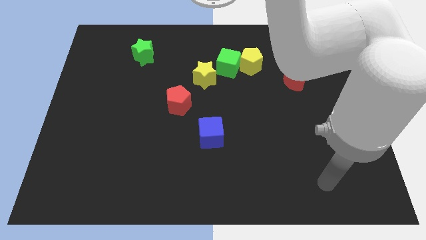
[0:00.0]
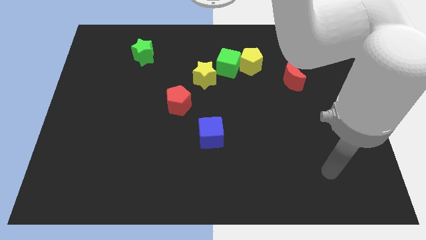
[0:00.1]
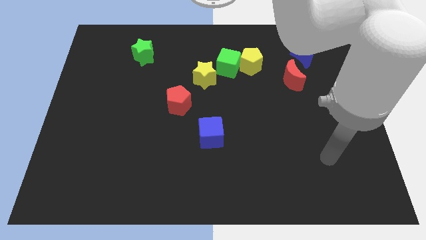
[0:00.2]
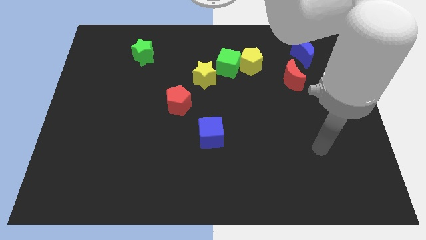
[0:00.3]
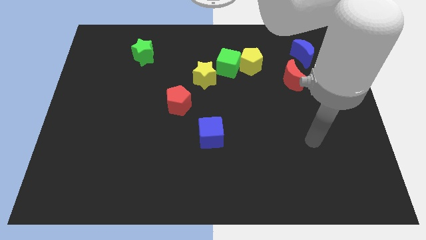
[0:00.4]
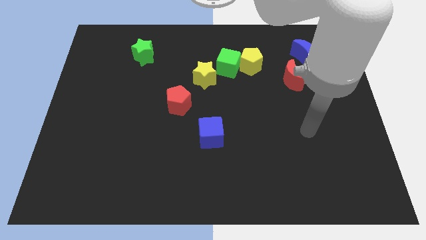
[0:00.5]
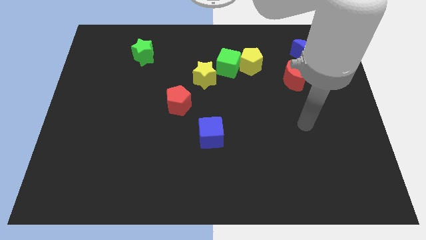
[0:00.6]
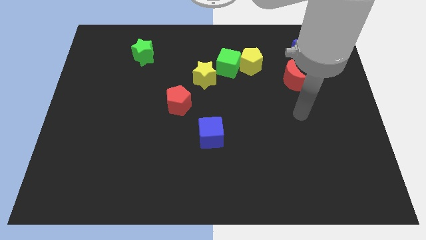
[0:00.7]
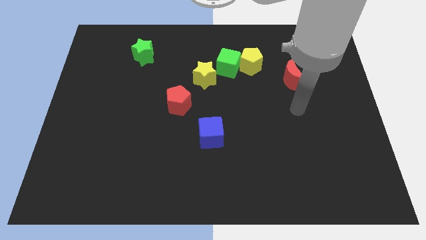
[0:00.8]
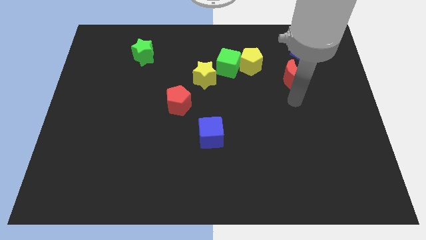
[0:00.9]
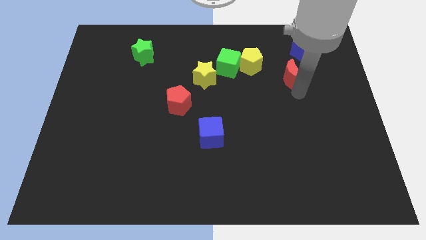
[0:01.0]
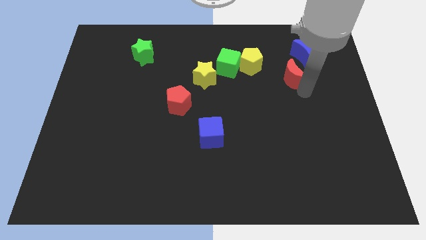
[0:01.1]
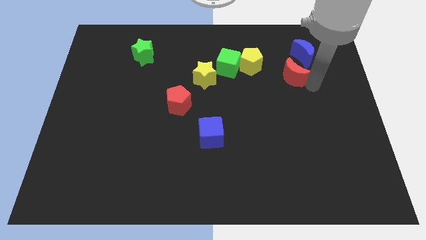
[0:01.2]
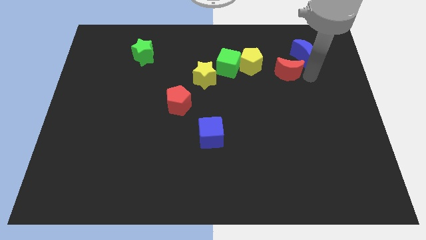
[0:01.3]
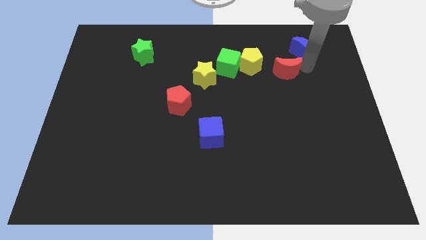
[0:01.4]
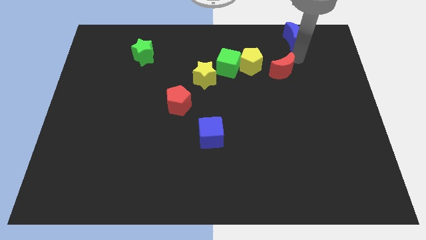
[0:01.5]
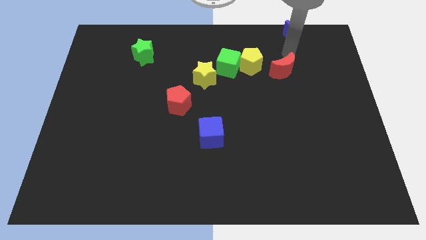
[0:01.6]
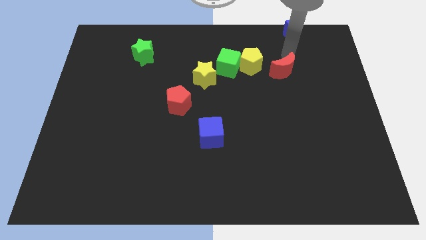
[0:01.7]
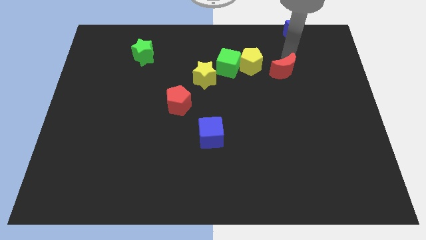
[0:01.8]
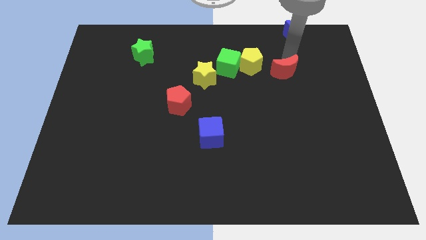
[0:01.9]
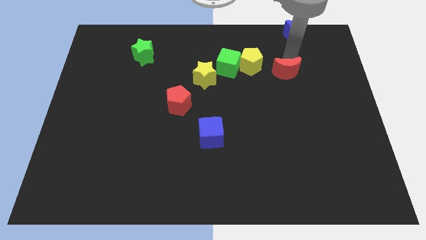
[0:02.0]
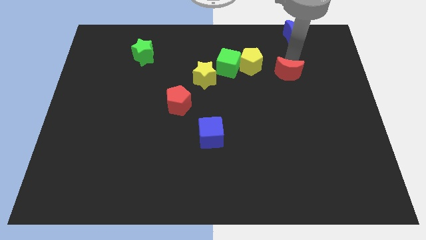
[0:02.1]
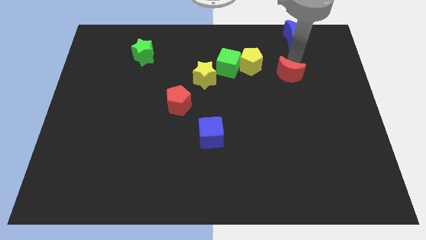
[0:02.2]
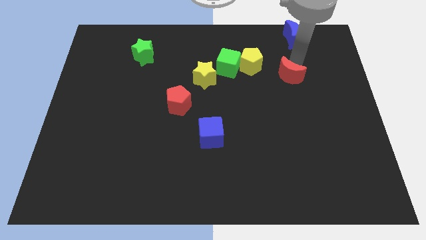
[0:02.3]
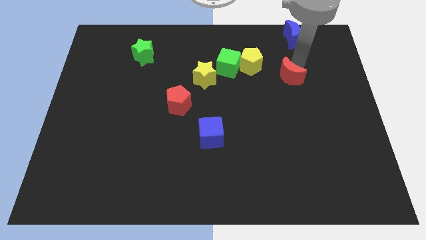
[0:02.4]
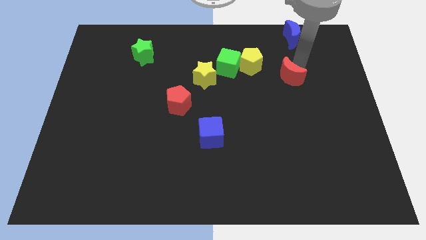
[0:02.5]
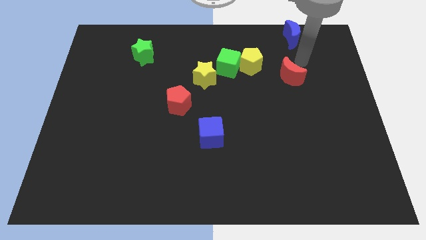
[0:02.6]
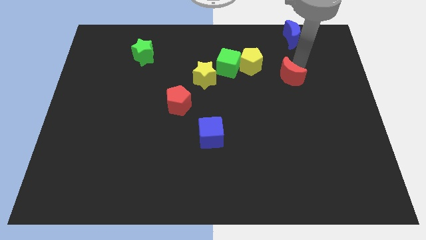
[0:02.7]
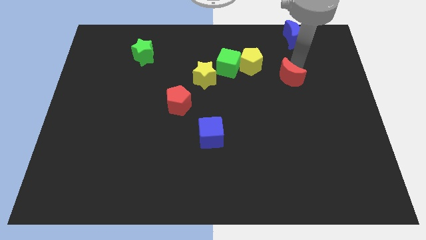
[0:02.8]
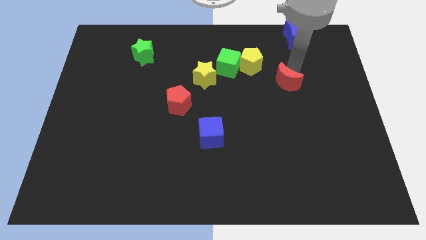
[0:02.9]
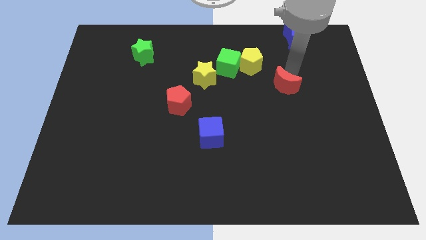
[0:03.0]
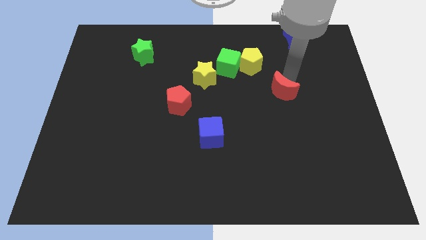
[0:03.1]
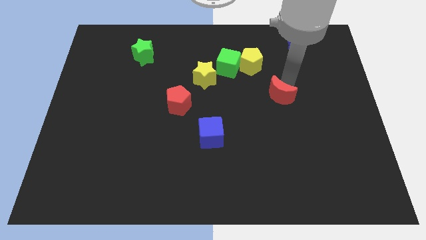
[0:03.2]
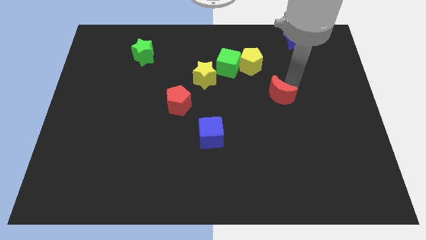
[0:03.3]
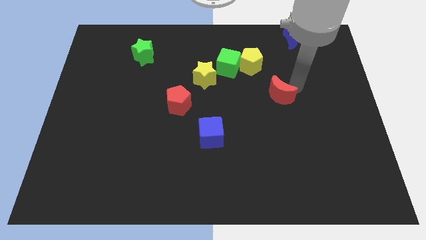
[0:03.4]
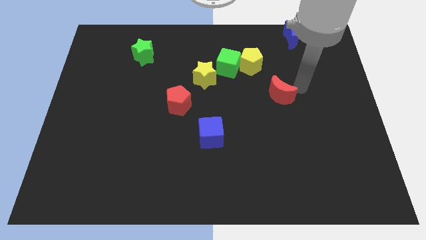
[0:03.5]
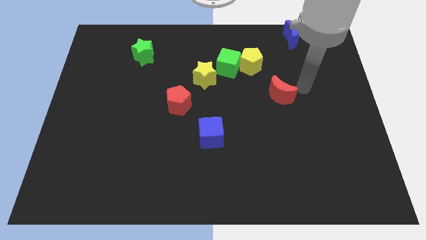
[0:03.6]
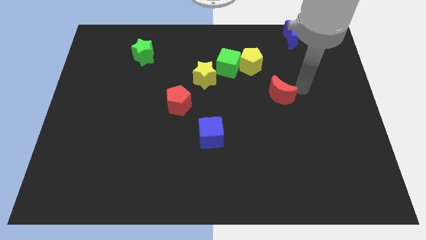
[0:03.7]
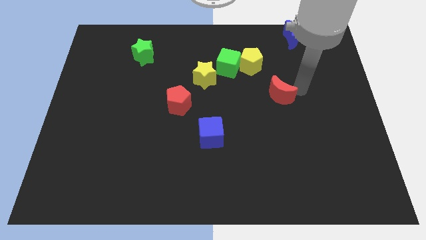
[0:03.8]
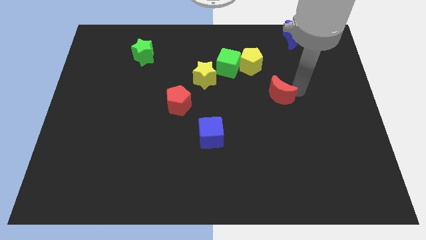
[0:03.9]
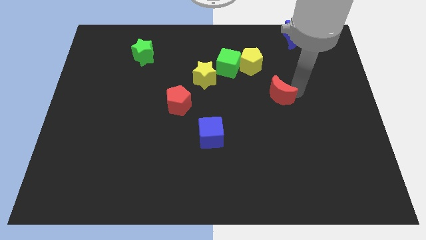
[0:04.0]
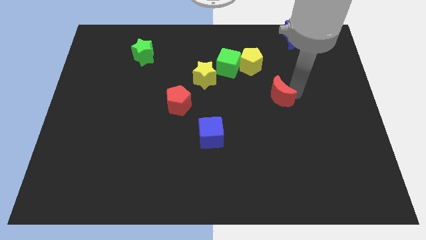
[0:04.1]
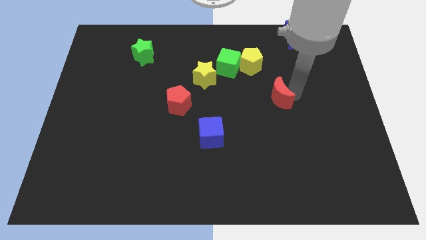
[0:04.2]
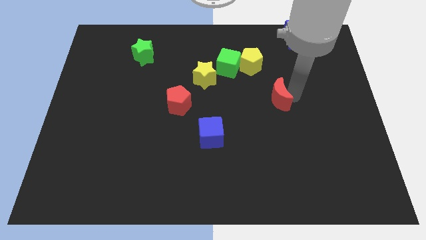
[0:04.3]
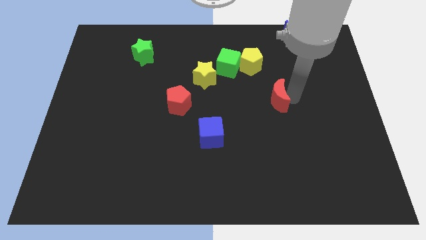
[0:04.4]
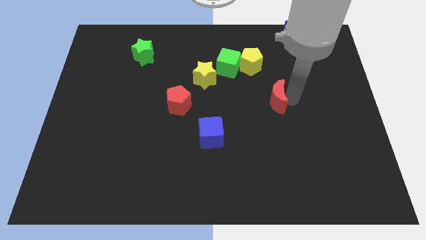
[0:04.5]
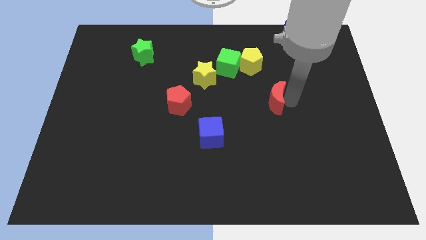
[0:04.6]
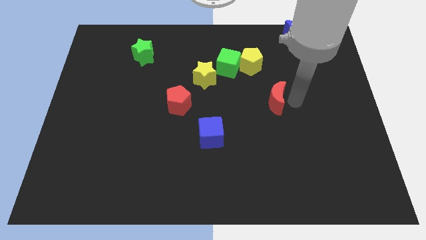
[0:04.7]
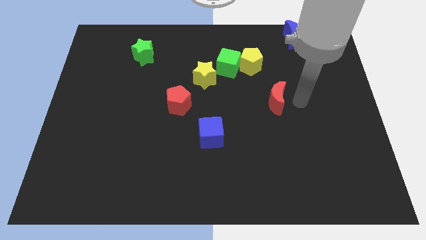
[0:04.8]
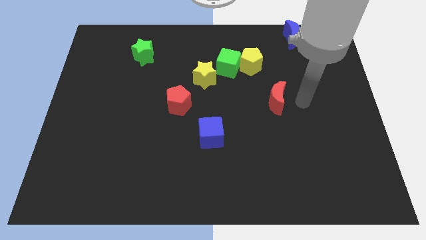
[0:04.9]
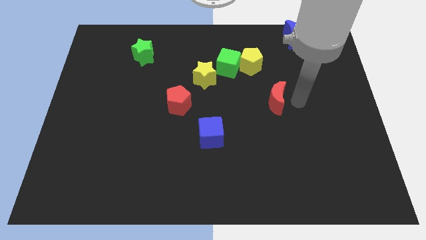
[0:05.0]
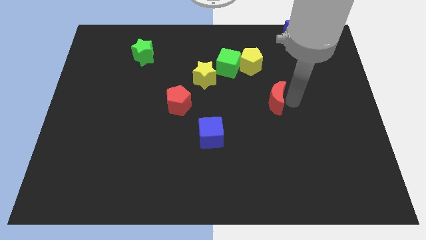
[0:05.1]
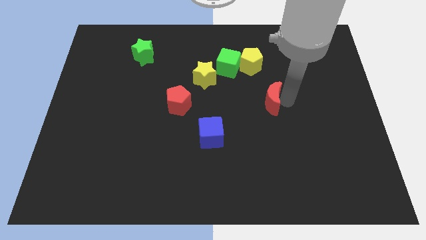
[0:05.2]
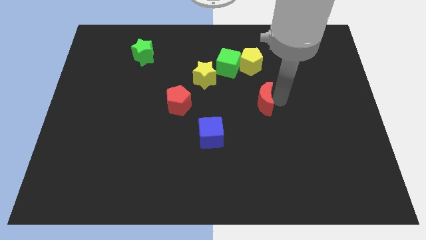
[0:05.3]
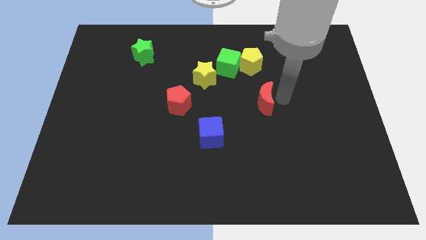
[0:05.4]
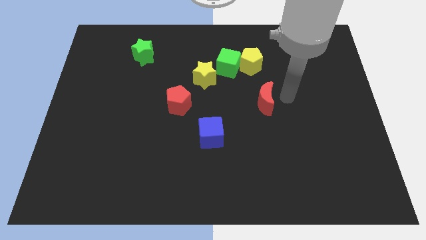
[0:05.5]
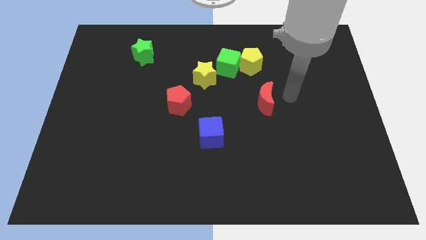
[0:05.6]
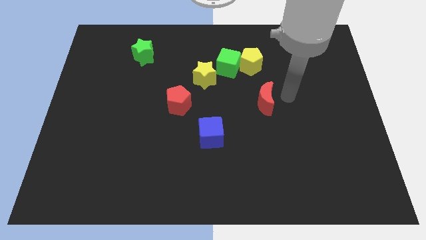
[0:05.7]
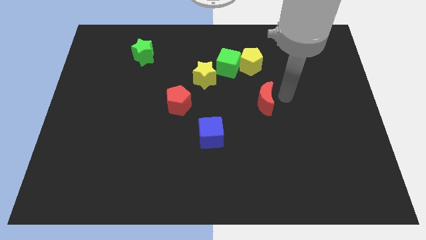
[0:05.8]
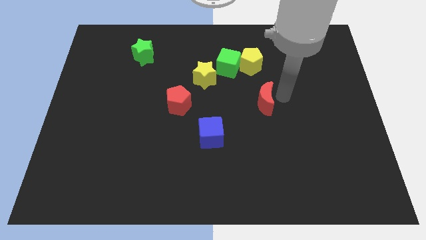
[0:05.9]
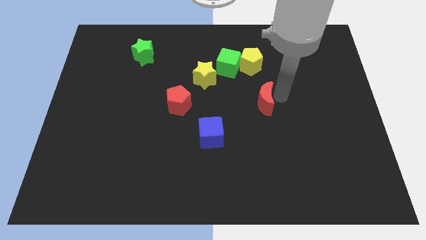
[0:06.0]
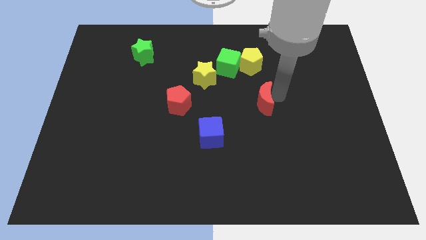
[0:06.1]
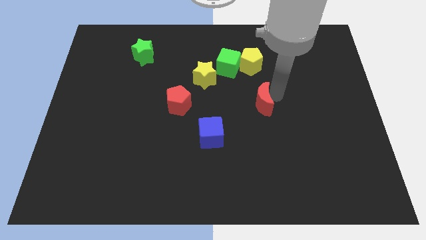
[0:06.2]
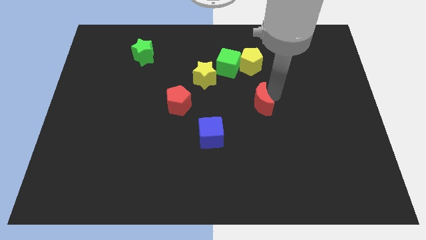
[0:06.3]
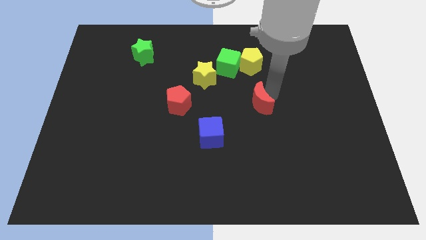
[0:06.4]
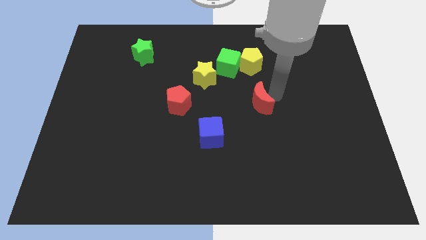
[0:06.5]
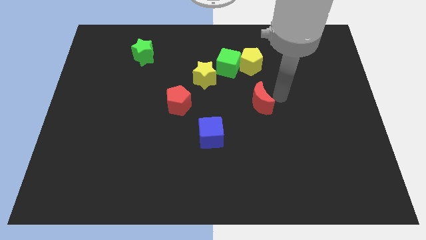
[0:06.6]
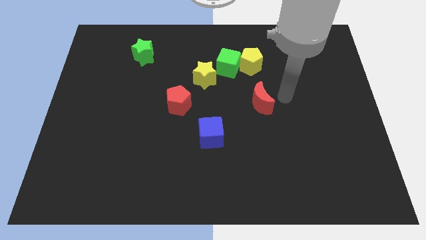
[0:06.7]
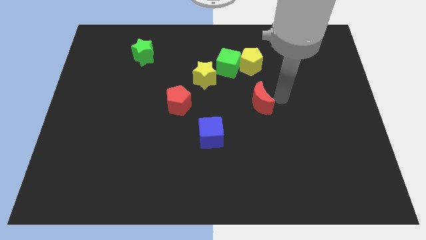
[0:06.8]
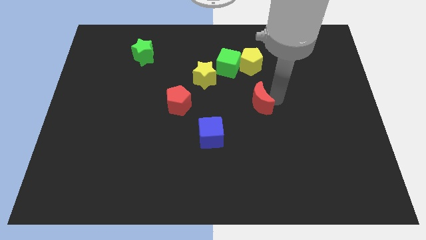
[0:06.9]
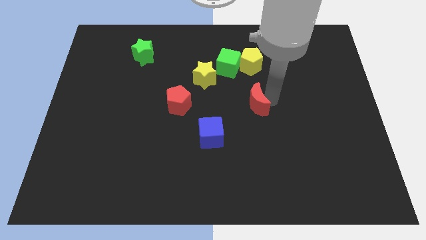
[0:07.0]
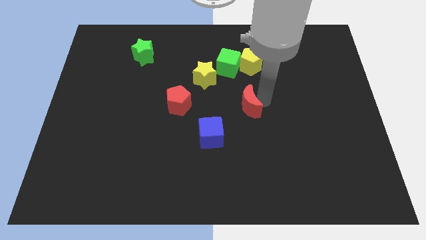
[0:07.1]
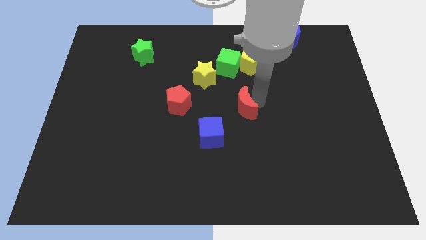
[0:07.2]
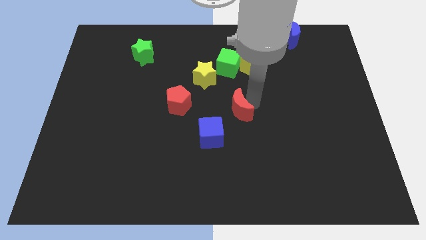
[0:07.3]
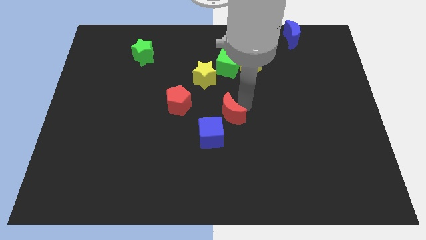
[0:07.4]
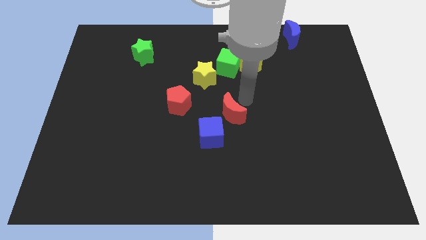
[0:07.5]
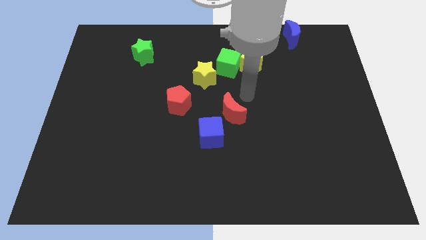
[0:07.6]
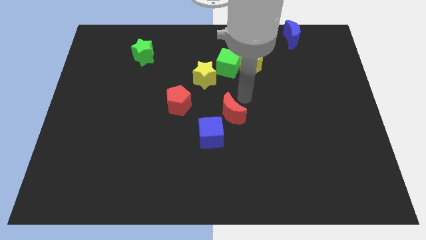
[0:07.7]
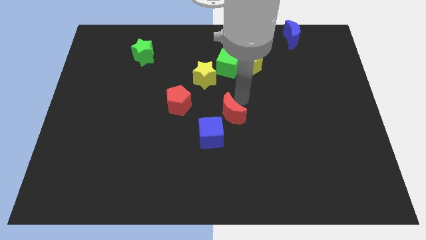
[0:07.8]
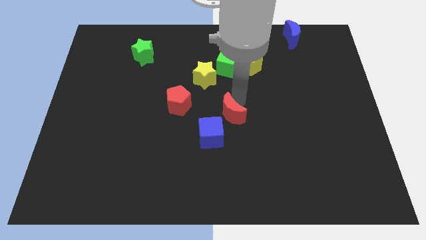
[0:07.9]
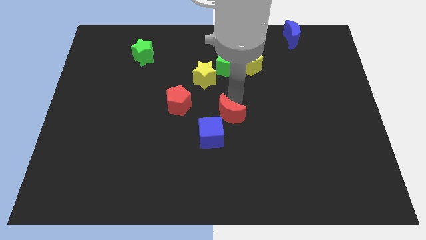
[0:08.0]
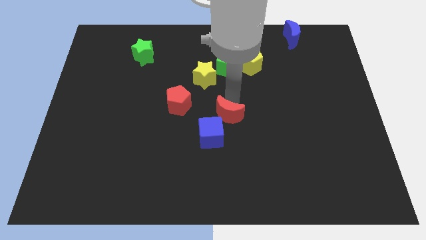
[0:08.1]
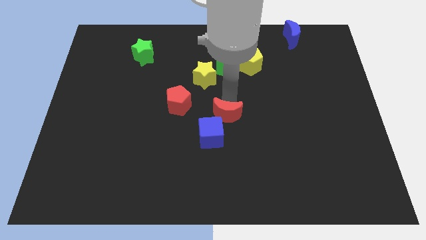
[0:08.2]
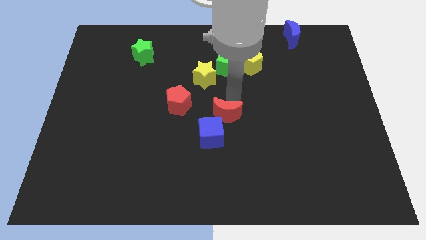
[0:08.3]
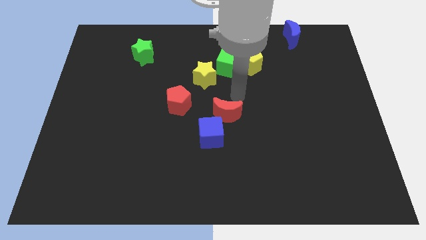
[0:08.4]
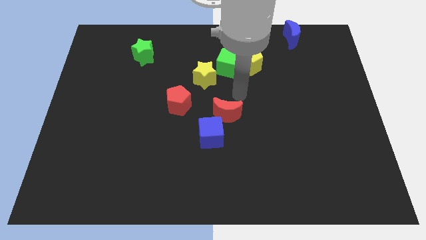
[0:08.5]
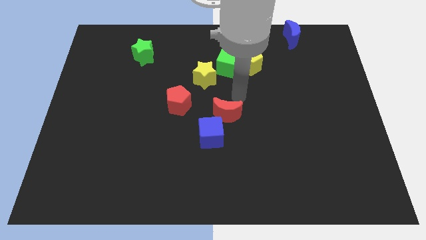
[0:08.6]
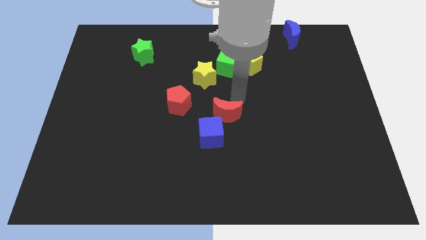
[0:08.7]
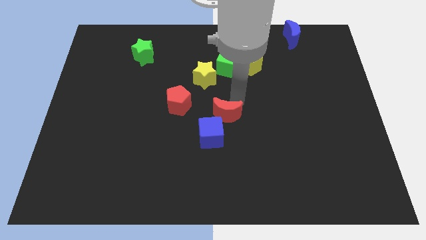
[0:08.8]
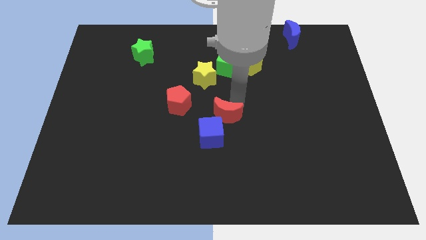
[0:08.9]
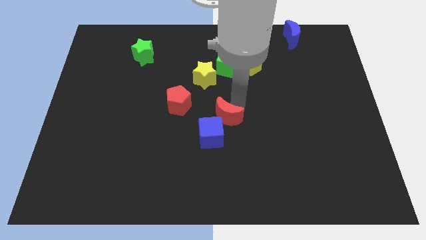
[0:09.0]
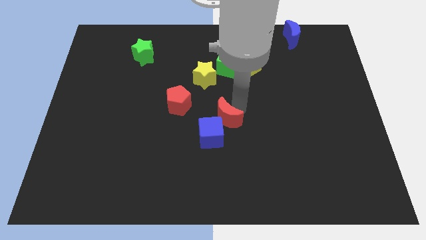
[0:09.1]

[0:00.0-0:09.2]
move the red moon next to the blue cube
